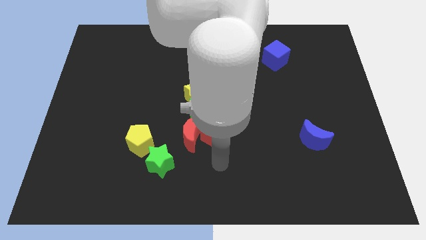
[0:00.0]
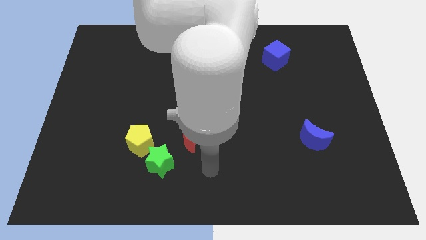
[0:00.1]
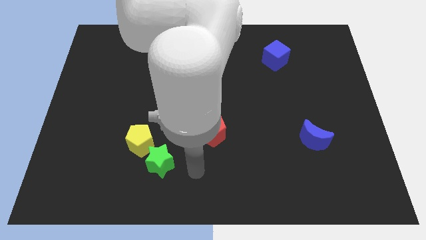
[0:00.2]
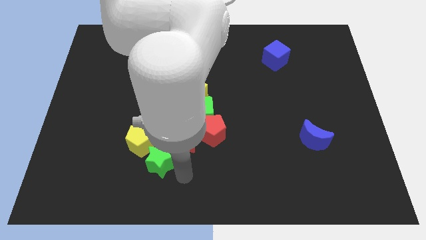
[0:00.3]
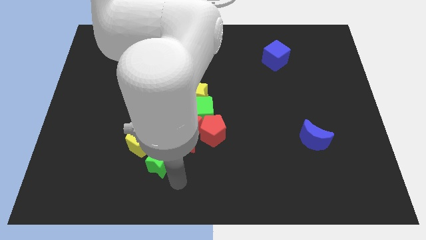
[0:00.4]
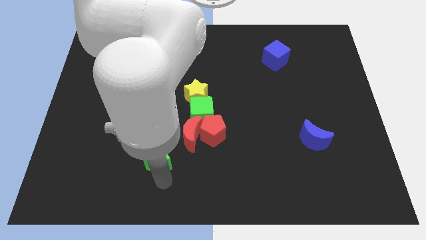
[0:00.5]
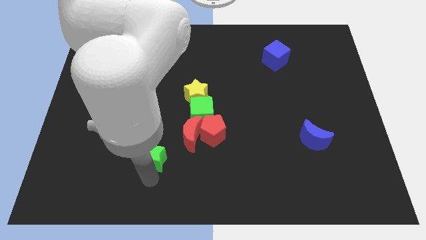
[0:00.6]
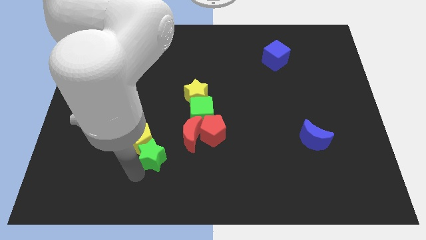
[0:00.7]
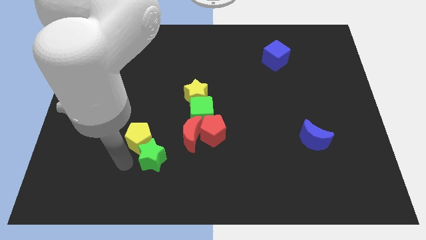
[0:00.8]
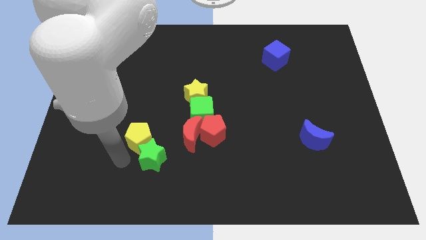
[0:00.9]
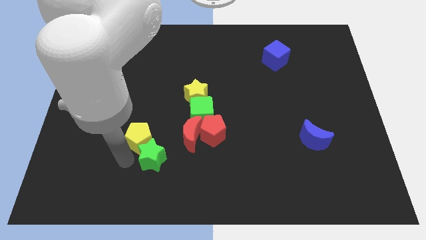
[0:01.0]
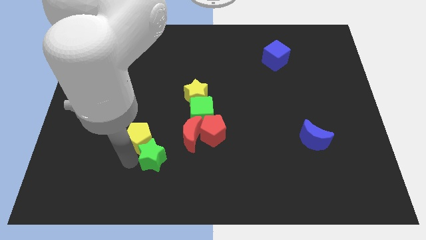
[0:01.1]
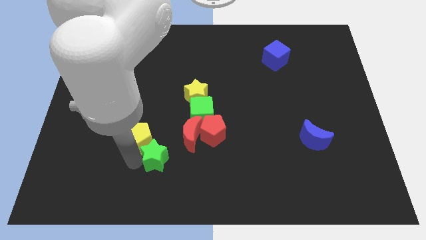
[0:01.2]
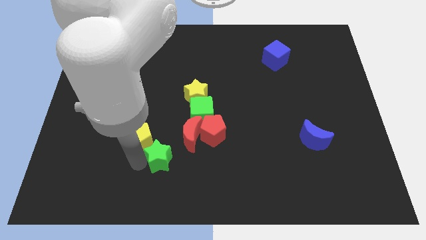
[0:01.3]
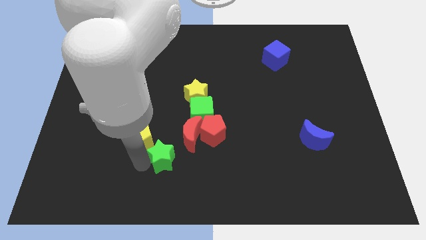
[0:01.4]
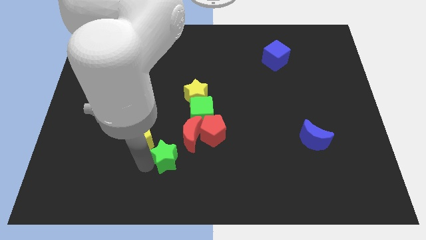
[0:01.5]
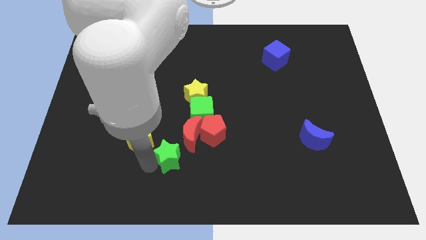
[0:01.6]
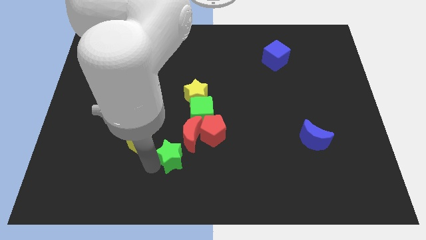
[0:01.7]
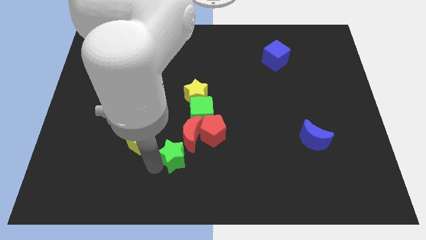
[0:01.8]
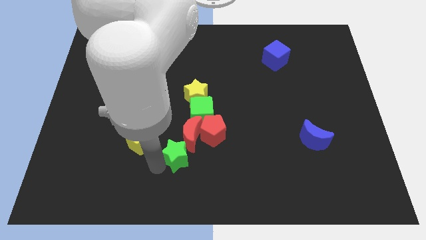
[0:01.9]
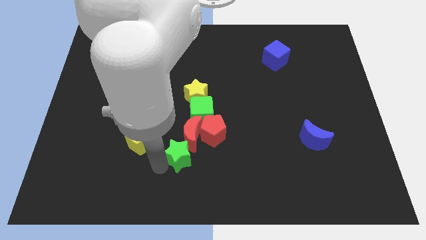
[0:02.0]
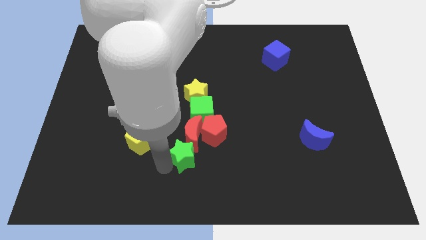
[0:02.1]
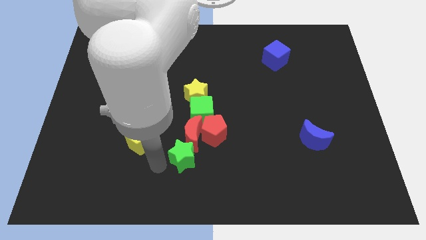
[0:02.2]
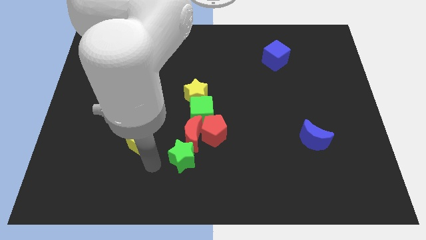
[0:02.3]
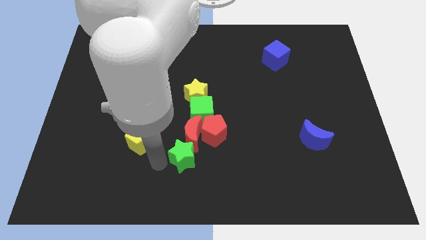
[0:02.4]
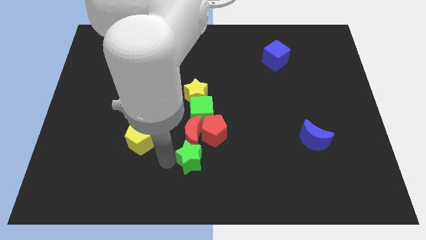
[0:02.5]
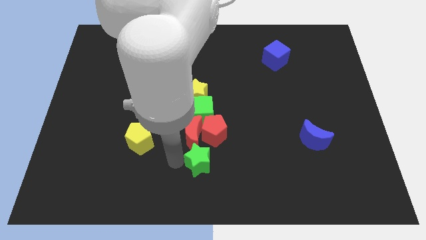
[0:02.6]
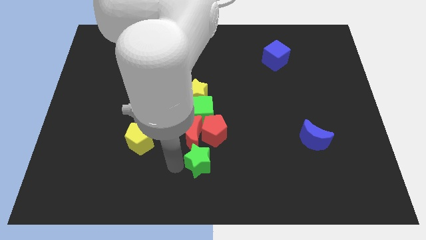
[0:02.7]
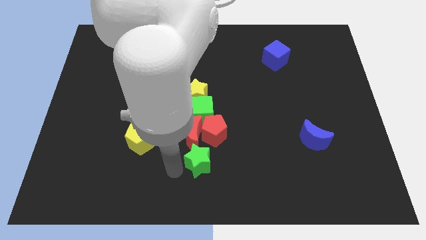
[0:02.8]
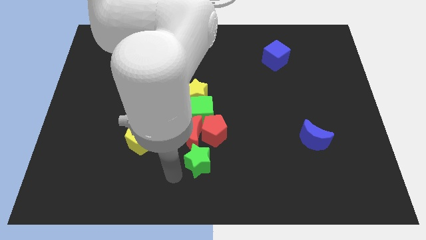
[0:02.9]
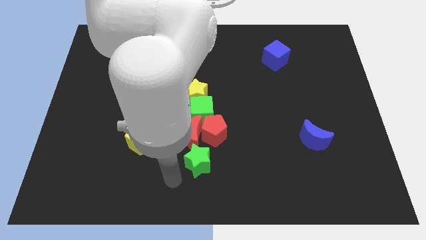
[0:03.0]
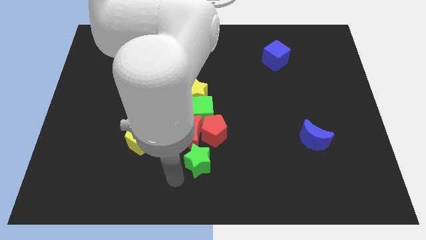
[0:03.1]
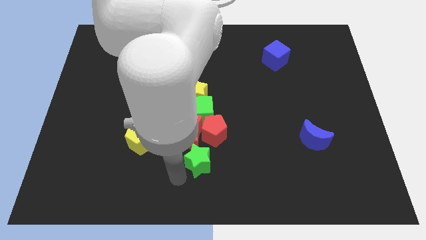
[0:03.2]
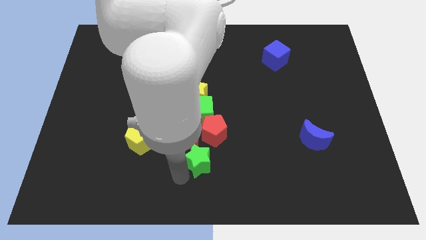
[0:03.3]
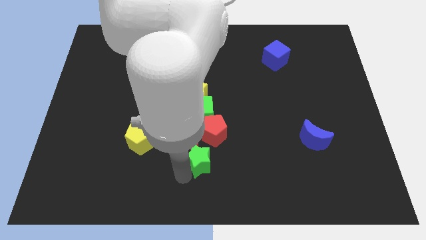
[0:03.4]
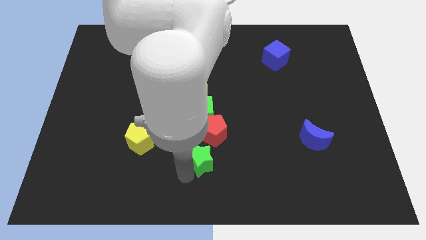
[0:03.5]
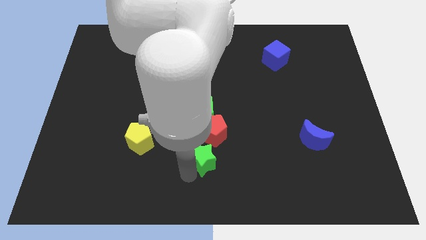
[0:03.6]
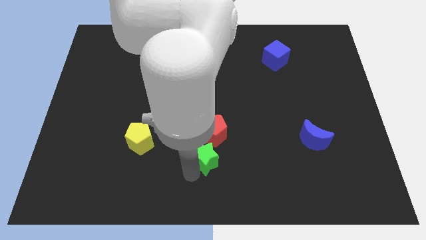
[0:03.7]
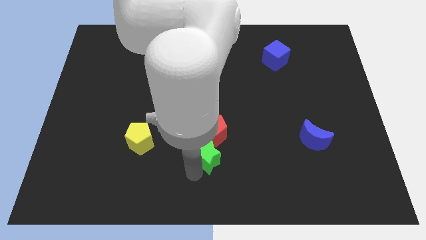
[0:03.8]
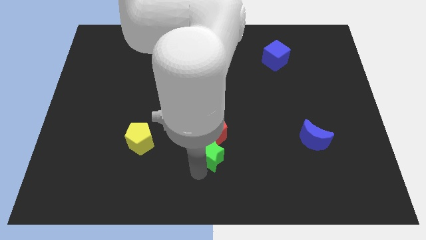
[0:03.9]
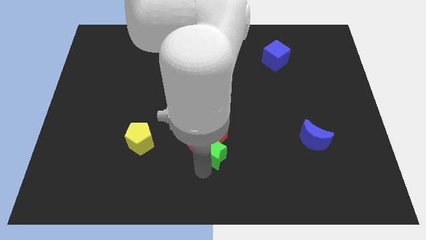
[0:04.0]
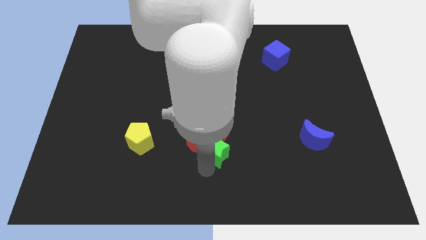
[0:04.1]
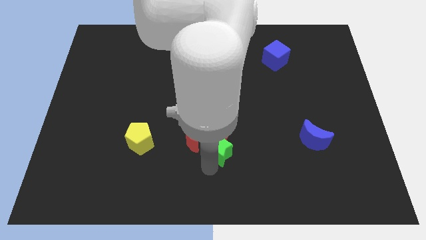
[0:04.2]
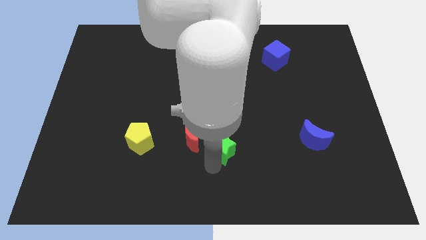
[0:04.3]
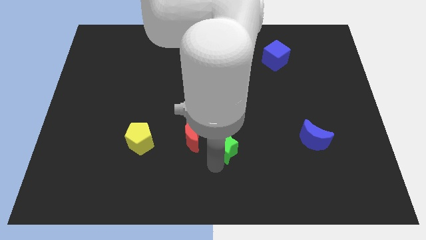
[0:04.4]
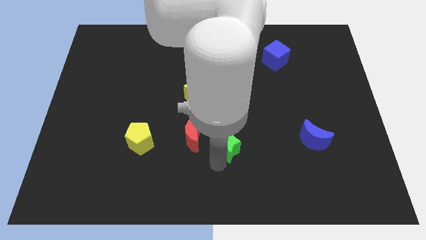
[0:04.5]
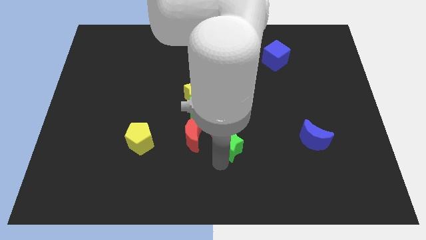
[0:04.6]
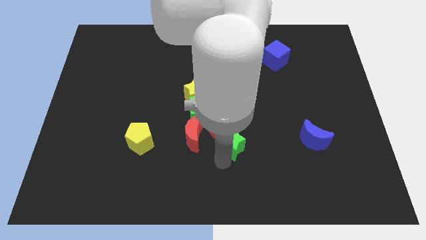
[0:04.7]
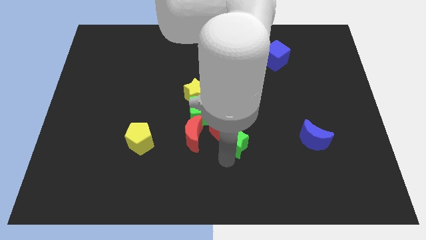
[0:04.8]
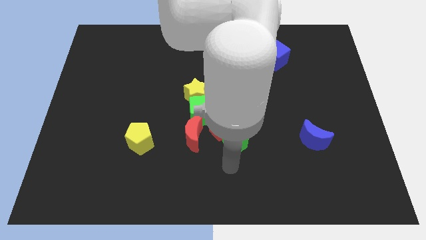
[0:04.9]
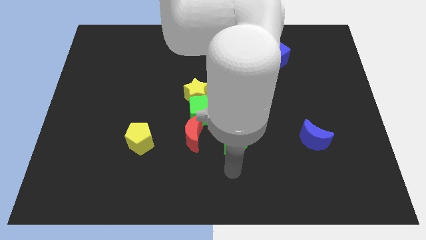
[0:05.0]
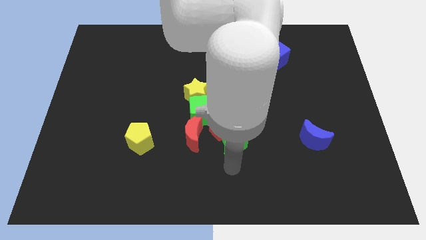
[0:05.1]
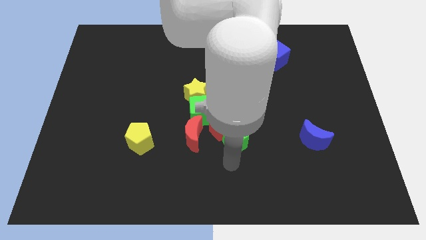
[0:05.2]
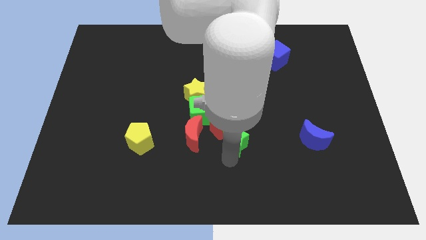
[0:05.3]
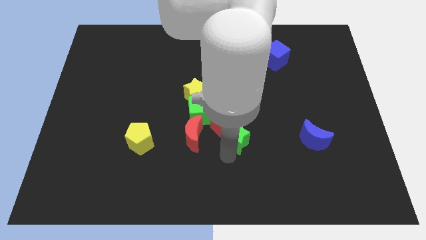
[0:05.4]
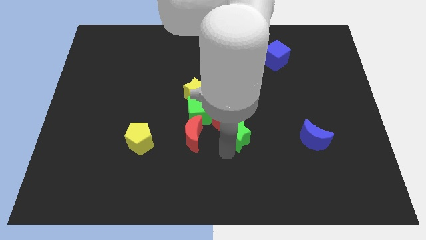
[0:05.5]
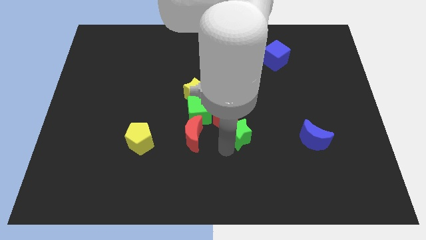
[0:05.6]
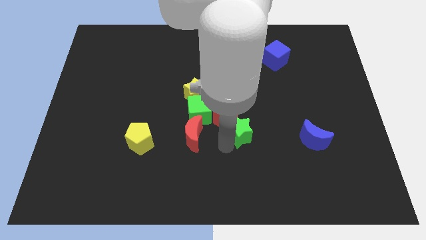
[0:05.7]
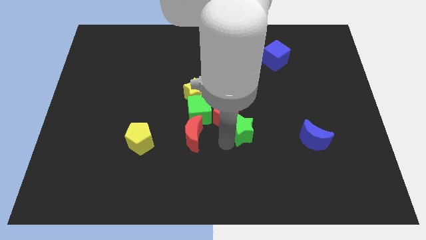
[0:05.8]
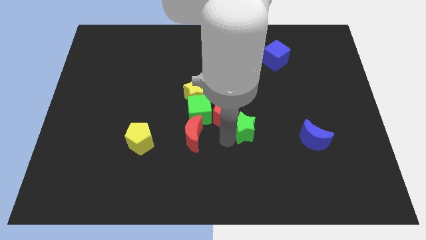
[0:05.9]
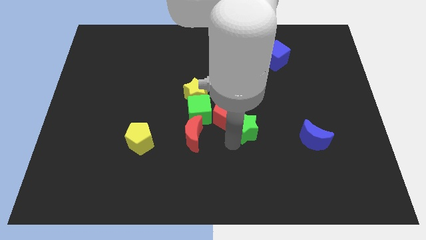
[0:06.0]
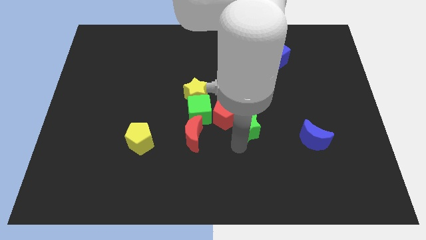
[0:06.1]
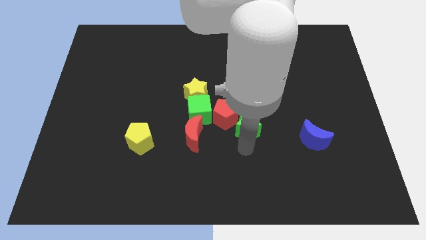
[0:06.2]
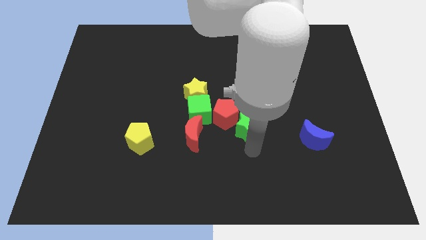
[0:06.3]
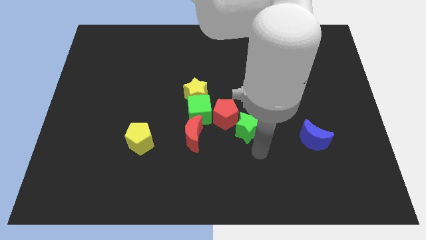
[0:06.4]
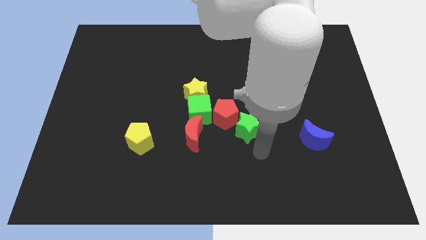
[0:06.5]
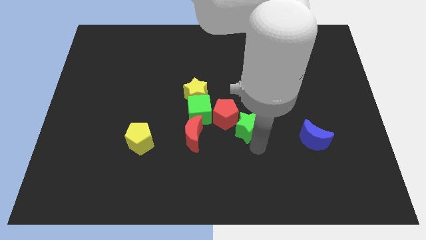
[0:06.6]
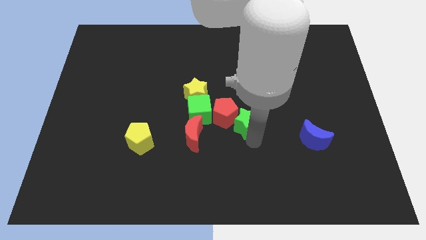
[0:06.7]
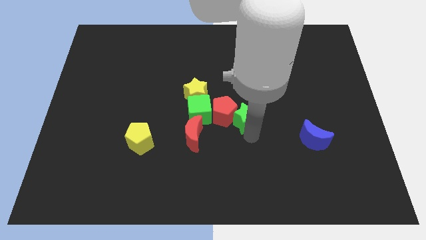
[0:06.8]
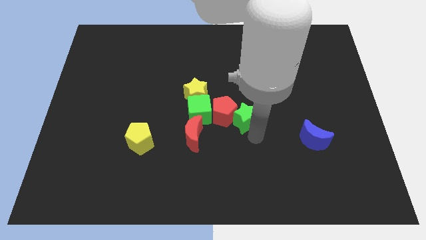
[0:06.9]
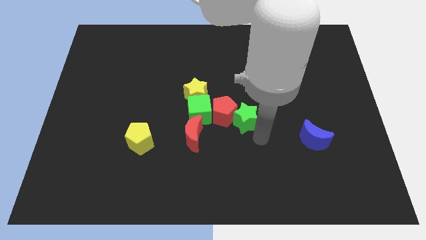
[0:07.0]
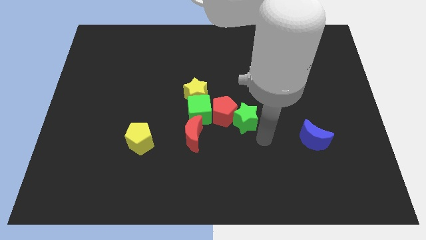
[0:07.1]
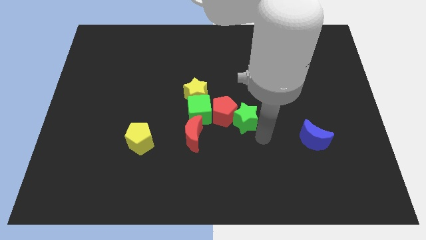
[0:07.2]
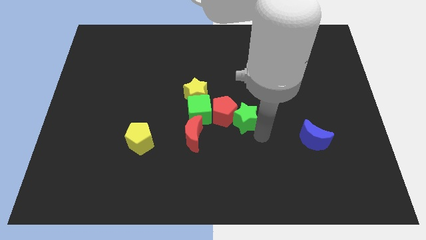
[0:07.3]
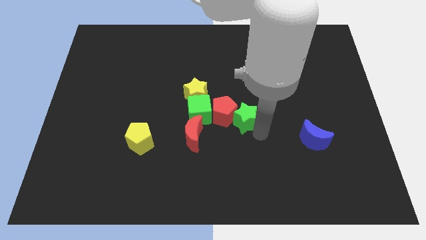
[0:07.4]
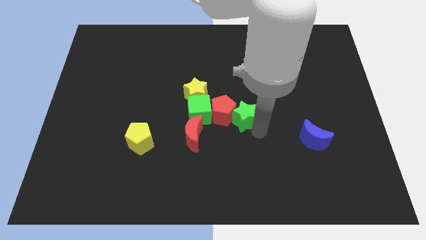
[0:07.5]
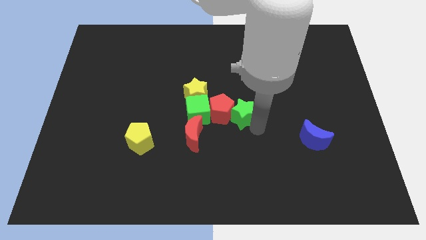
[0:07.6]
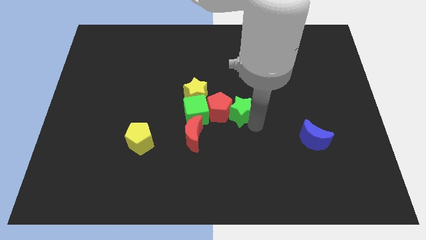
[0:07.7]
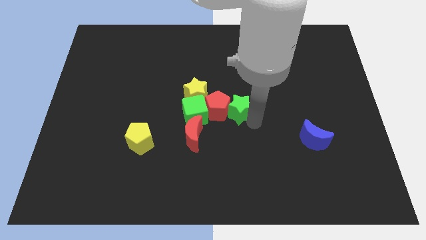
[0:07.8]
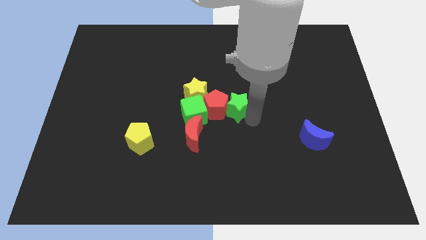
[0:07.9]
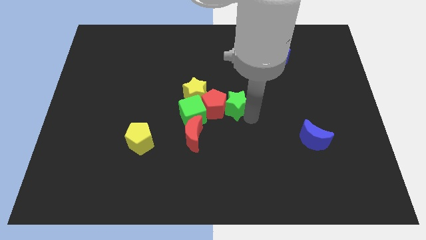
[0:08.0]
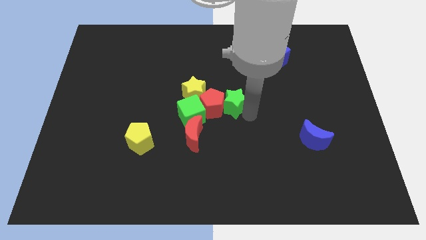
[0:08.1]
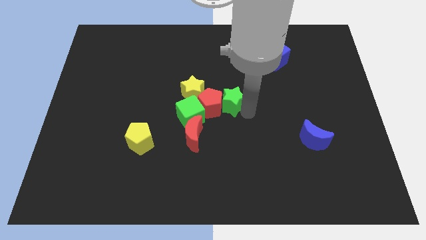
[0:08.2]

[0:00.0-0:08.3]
put the green star to the top right side of the green cube
